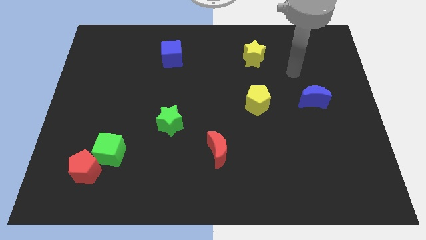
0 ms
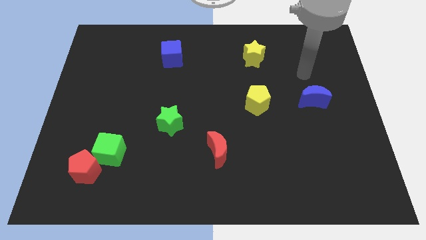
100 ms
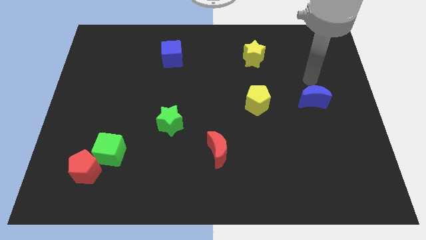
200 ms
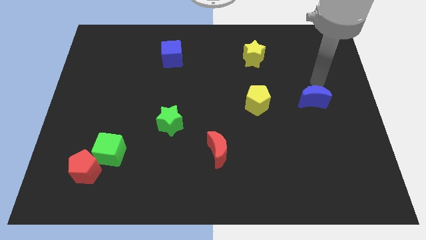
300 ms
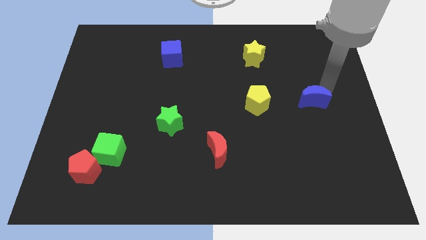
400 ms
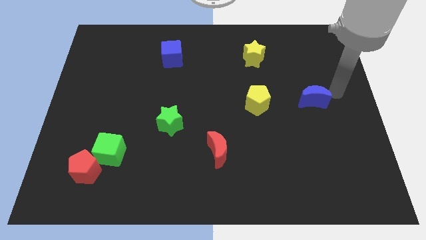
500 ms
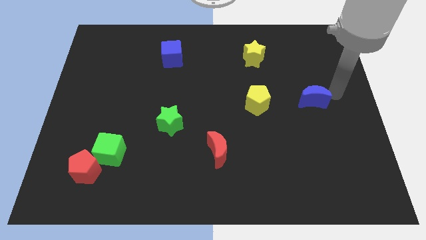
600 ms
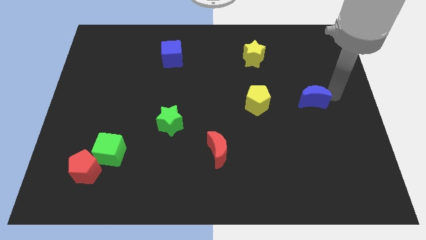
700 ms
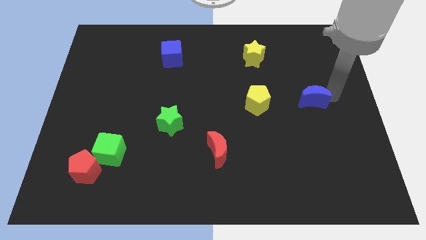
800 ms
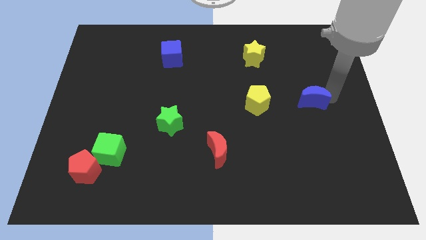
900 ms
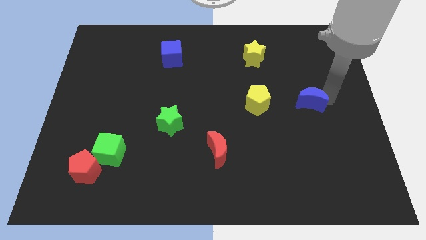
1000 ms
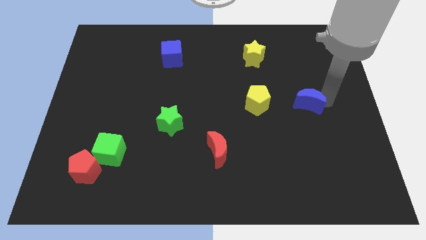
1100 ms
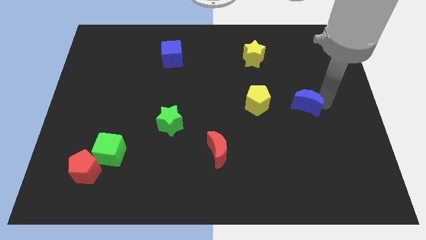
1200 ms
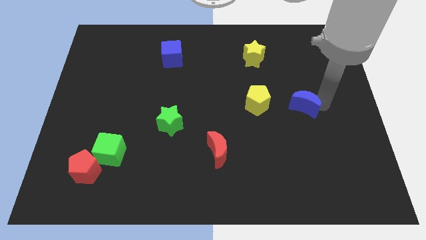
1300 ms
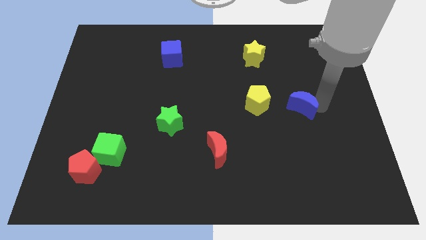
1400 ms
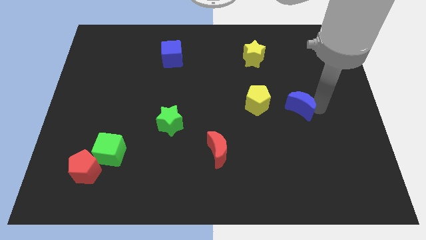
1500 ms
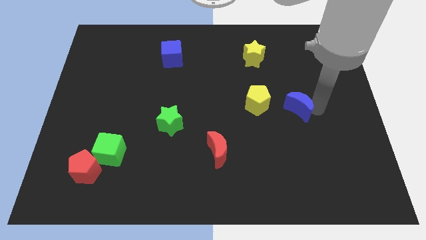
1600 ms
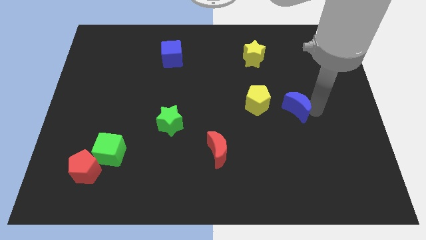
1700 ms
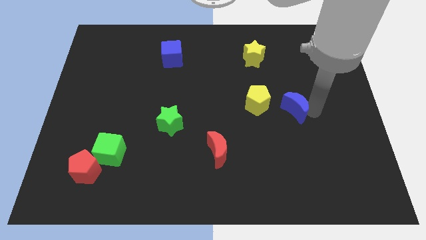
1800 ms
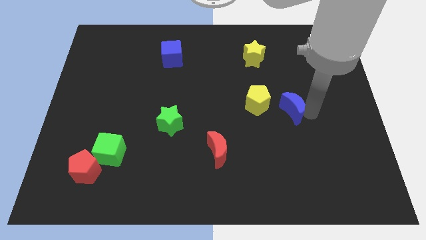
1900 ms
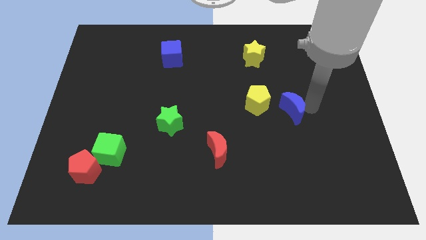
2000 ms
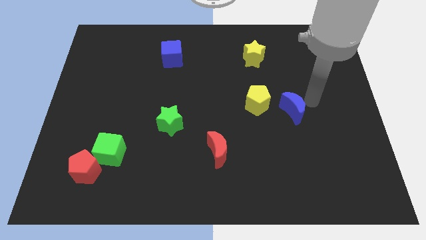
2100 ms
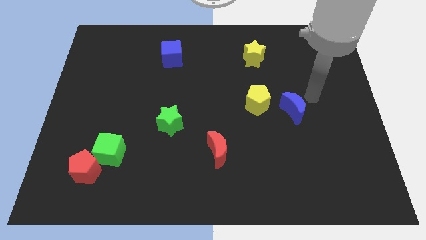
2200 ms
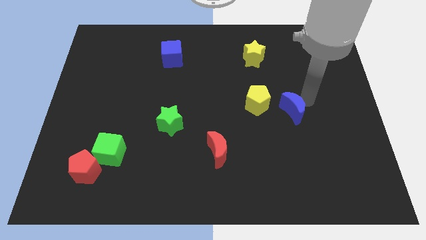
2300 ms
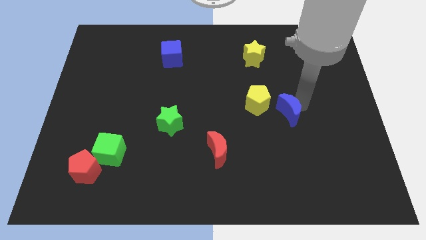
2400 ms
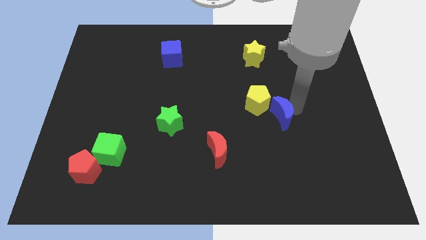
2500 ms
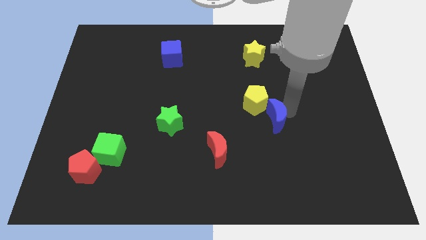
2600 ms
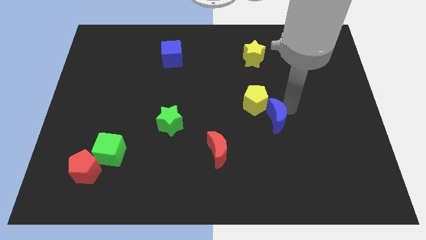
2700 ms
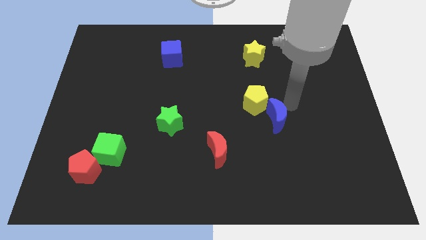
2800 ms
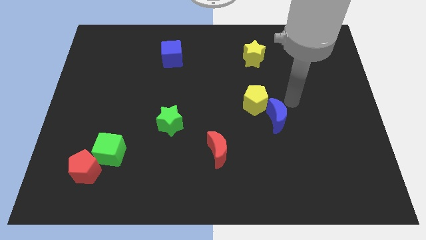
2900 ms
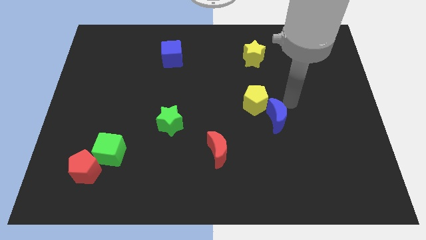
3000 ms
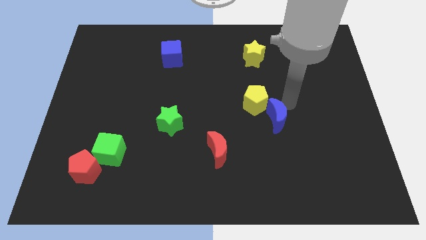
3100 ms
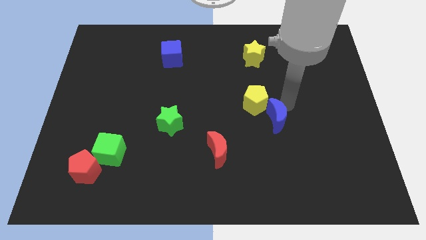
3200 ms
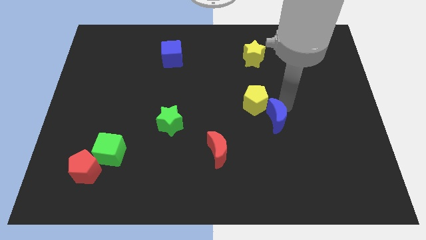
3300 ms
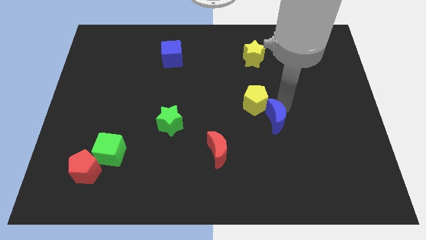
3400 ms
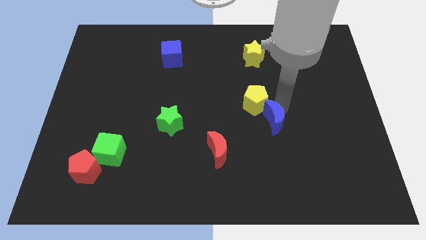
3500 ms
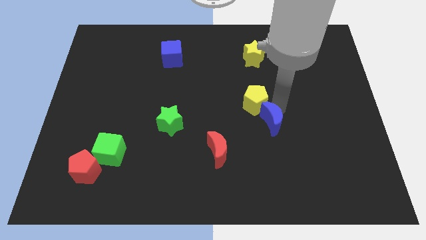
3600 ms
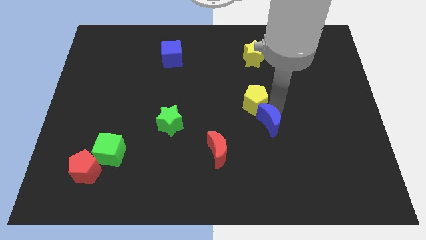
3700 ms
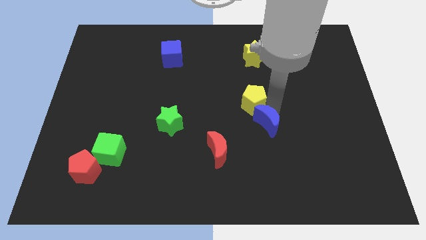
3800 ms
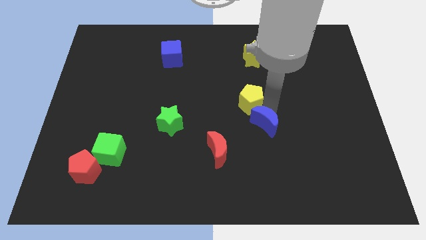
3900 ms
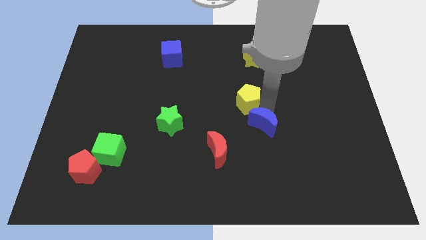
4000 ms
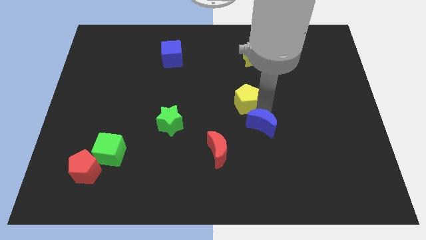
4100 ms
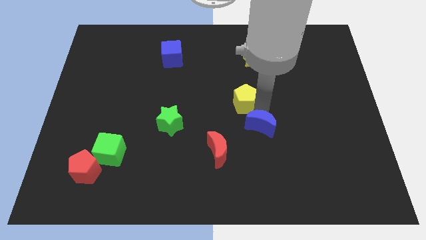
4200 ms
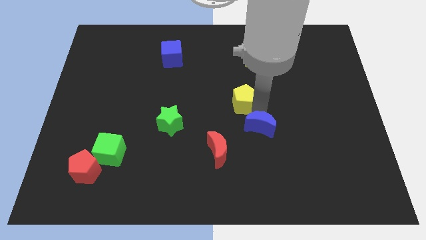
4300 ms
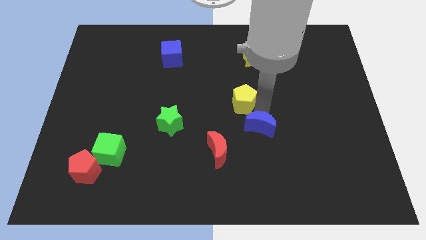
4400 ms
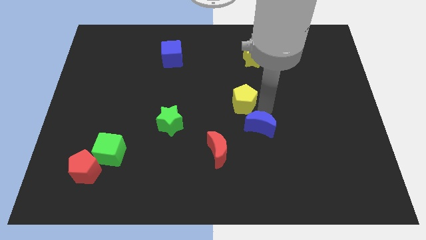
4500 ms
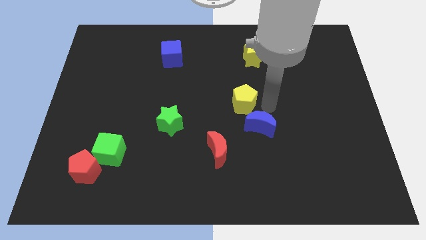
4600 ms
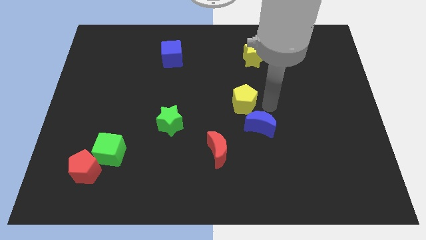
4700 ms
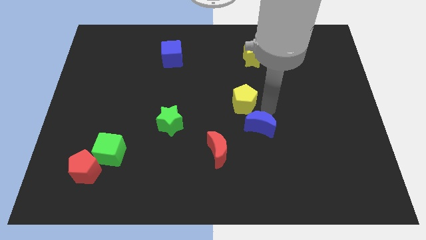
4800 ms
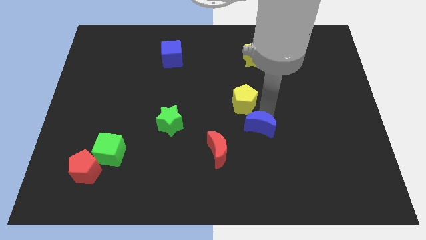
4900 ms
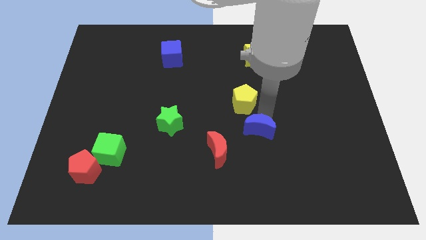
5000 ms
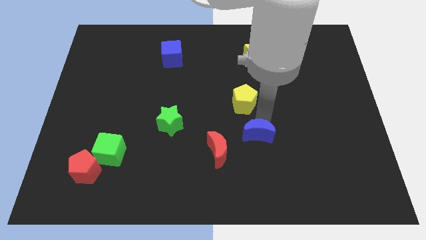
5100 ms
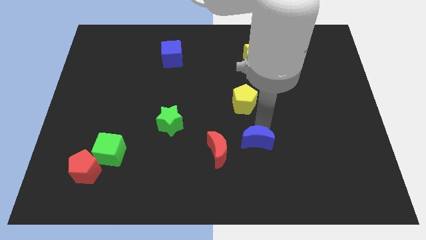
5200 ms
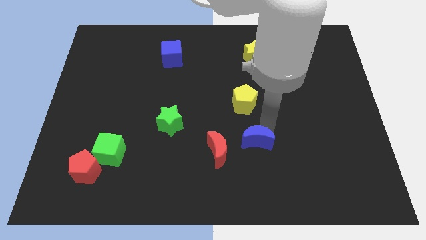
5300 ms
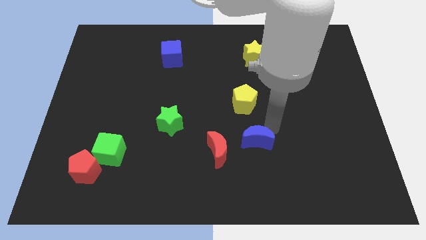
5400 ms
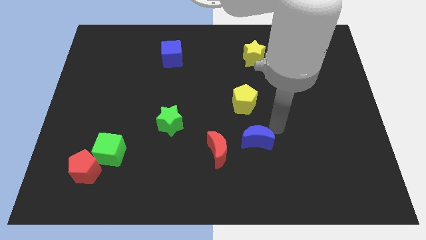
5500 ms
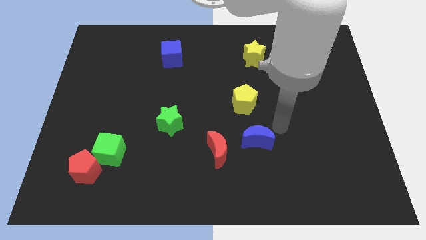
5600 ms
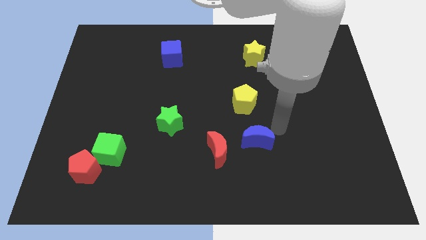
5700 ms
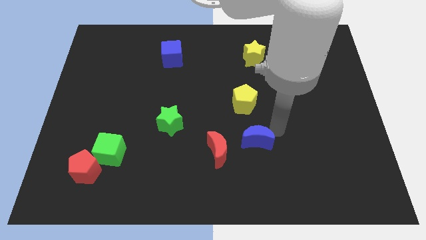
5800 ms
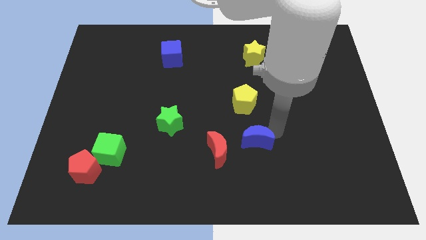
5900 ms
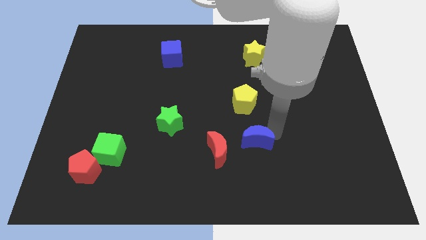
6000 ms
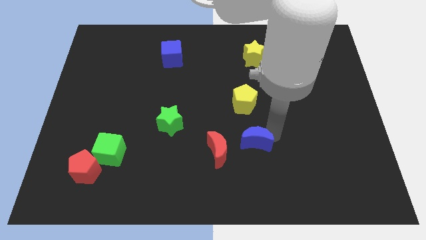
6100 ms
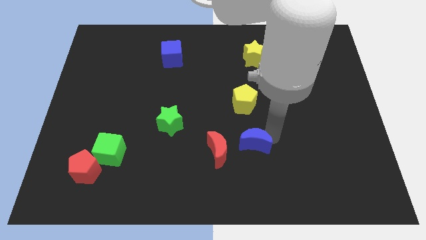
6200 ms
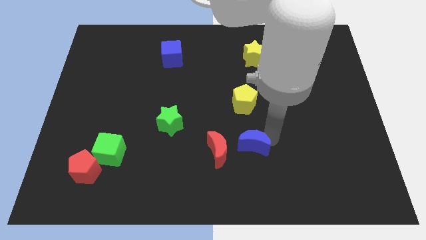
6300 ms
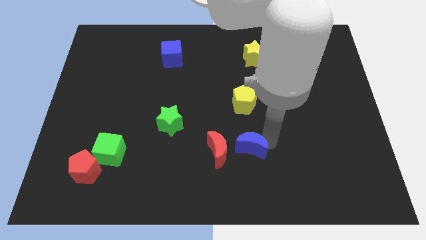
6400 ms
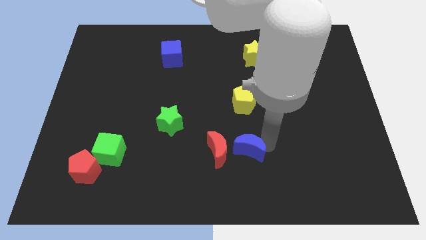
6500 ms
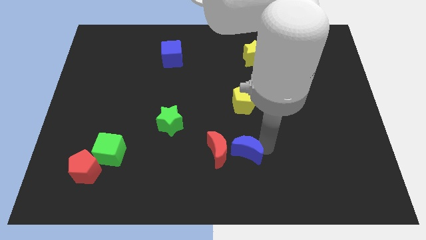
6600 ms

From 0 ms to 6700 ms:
slide the blue moon close to the red moon
